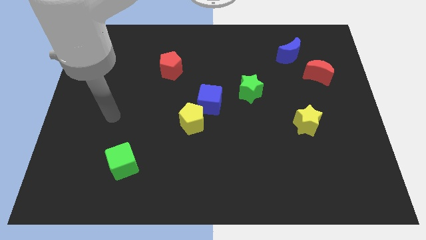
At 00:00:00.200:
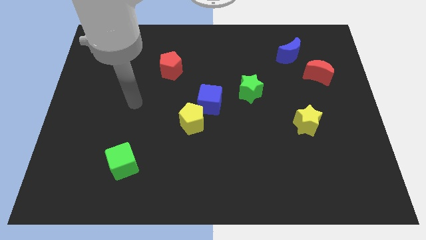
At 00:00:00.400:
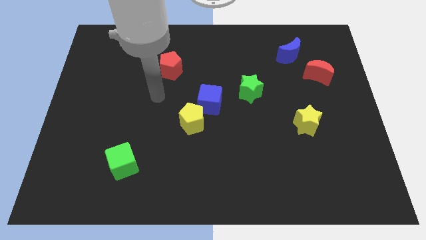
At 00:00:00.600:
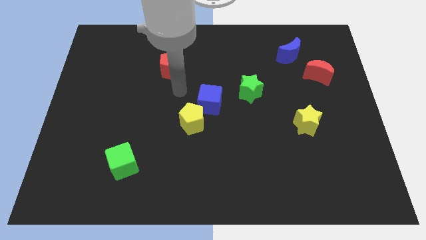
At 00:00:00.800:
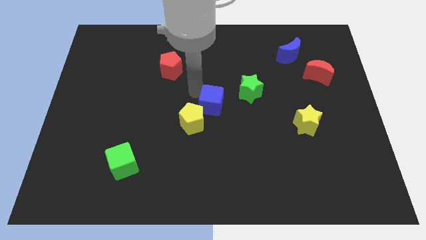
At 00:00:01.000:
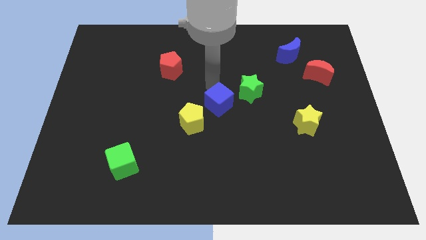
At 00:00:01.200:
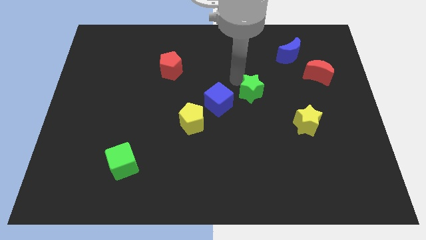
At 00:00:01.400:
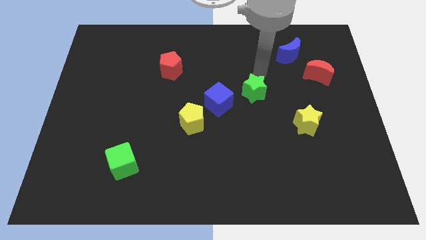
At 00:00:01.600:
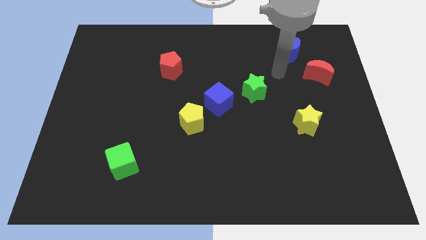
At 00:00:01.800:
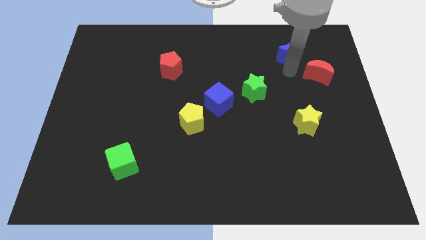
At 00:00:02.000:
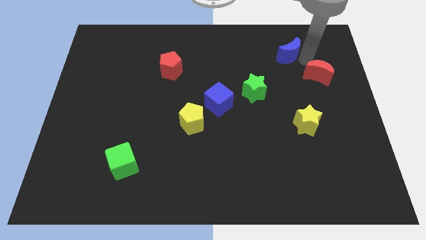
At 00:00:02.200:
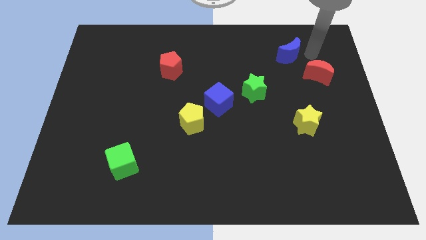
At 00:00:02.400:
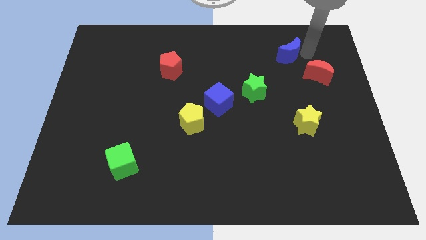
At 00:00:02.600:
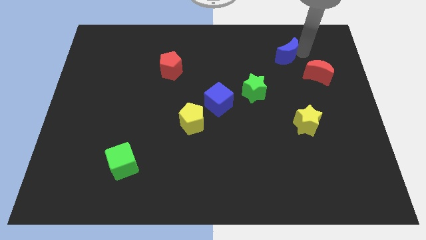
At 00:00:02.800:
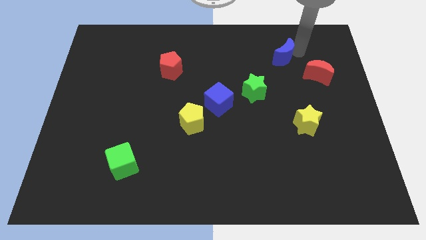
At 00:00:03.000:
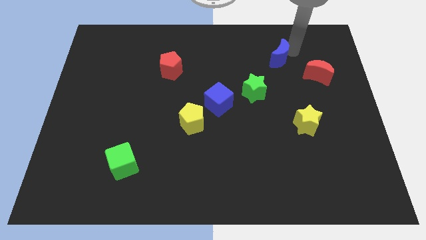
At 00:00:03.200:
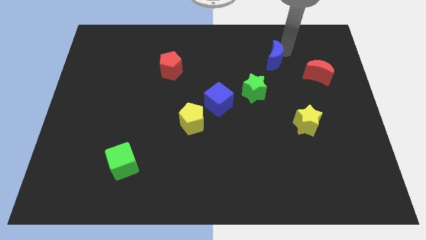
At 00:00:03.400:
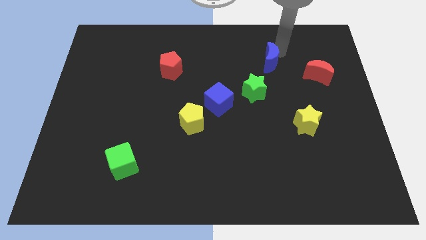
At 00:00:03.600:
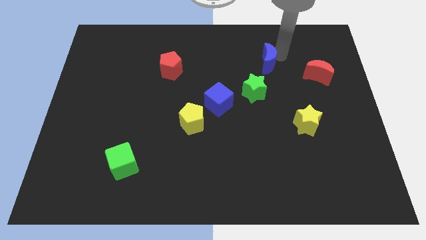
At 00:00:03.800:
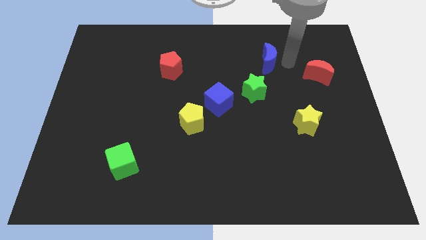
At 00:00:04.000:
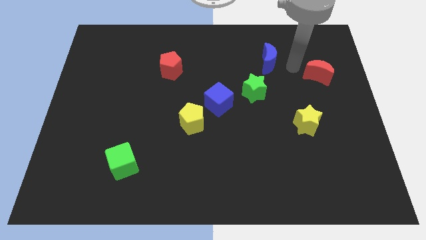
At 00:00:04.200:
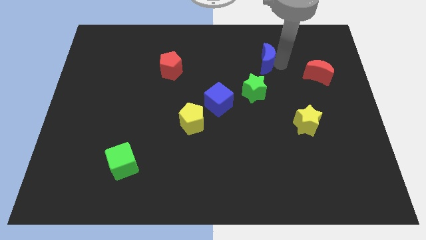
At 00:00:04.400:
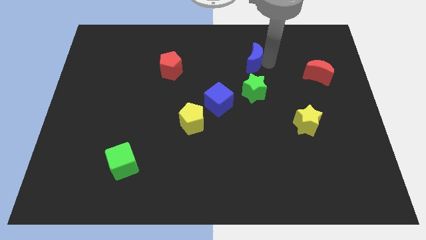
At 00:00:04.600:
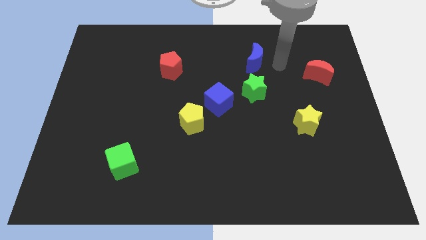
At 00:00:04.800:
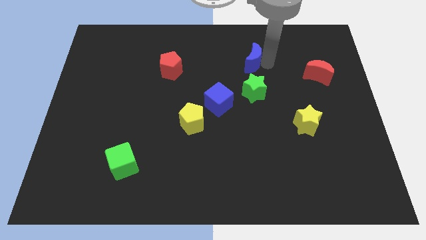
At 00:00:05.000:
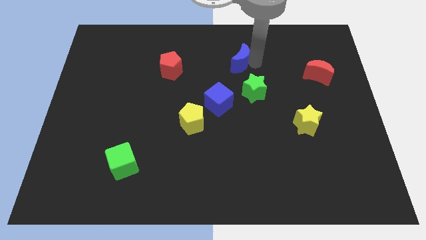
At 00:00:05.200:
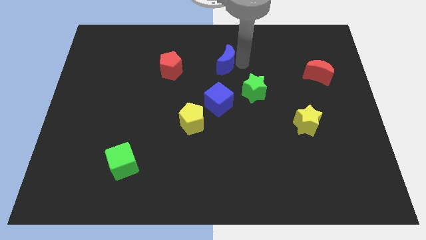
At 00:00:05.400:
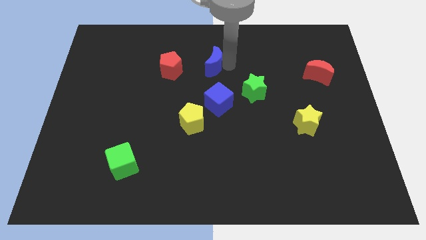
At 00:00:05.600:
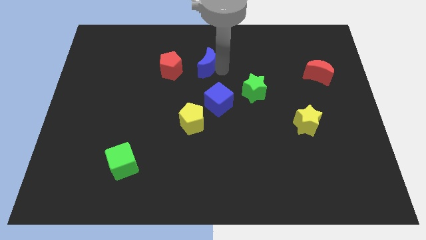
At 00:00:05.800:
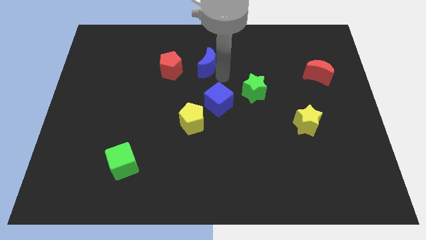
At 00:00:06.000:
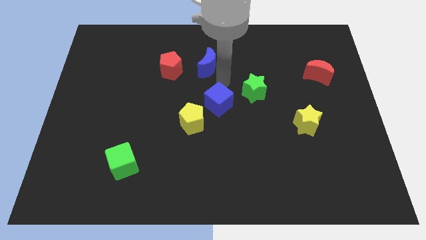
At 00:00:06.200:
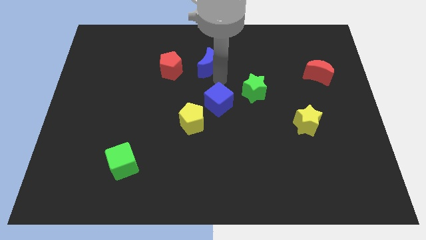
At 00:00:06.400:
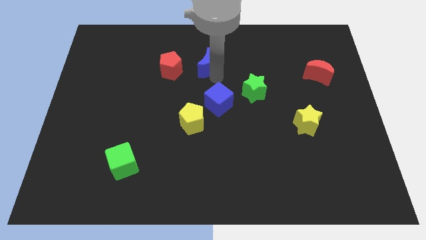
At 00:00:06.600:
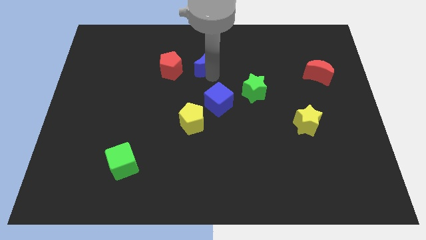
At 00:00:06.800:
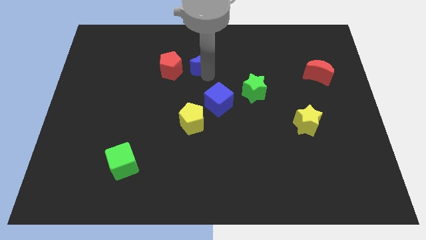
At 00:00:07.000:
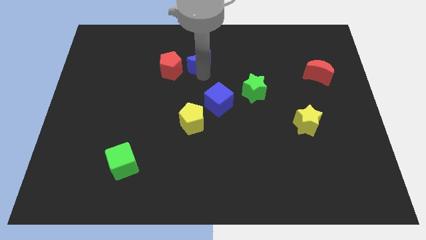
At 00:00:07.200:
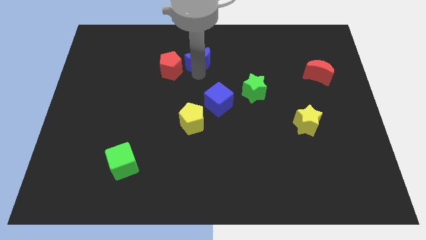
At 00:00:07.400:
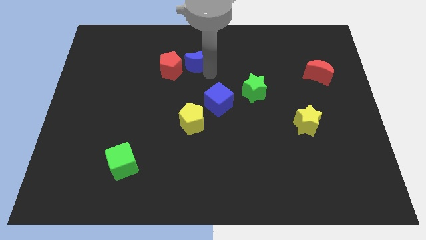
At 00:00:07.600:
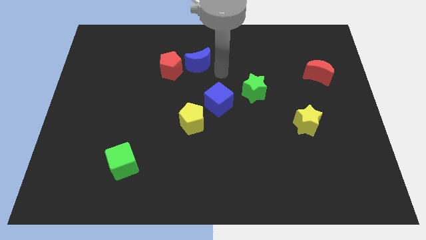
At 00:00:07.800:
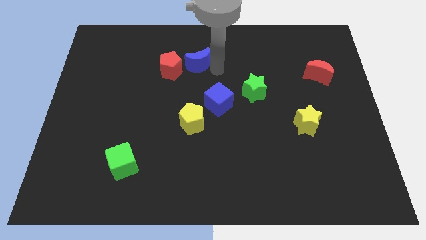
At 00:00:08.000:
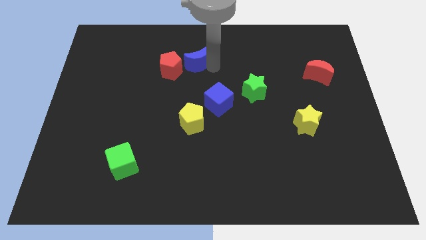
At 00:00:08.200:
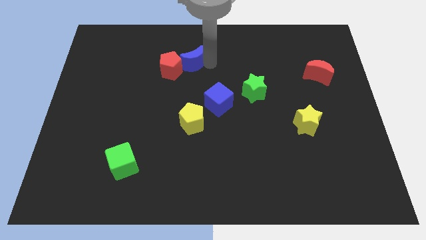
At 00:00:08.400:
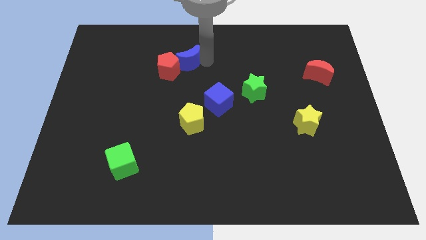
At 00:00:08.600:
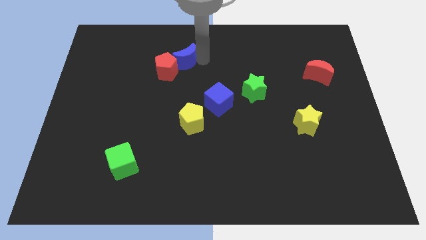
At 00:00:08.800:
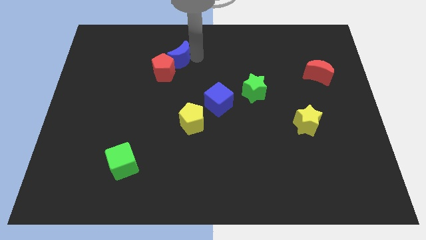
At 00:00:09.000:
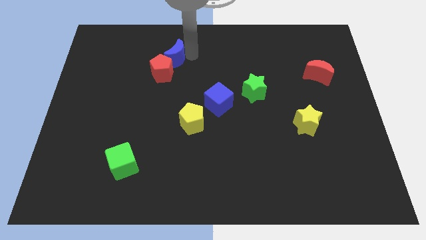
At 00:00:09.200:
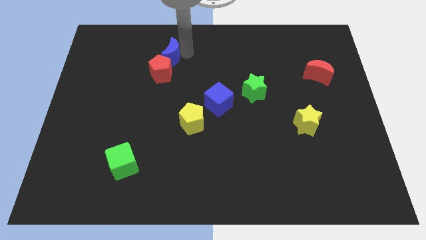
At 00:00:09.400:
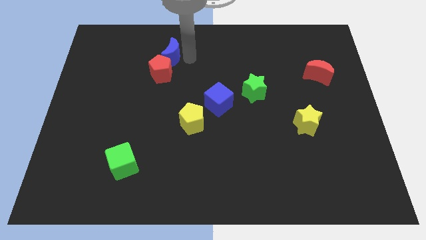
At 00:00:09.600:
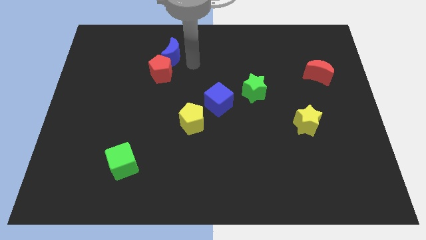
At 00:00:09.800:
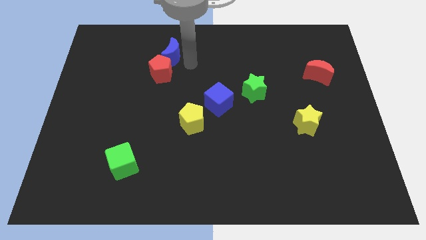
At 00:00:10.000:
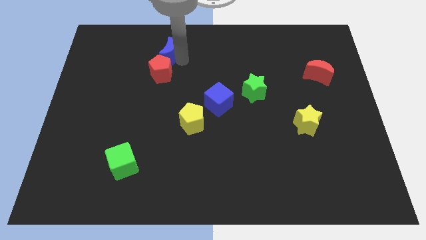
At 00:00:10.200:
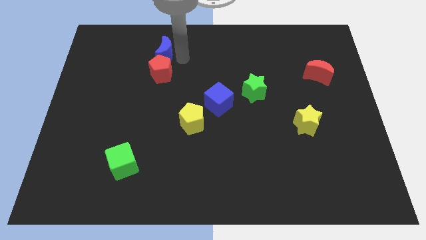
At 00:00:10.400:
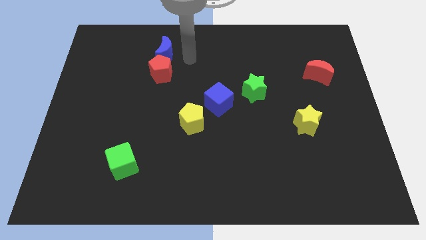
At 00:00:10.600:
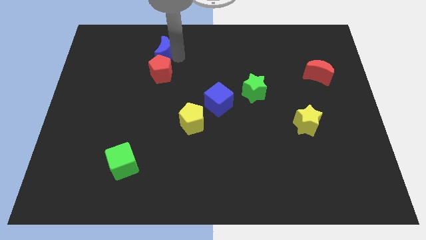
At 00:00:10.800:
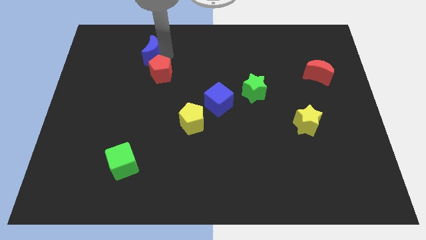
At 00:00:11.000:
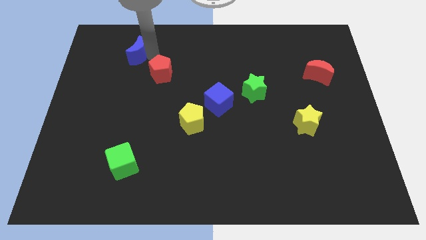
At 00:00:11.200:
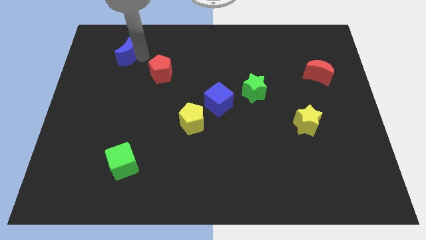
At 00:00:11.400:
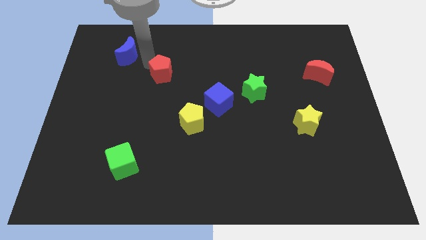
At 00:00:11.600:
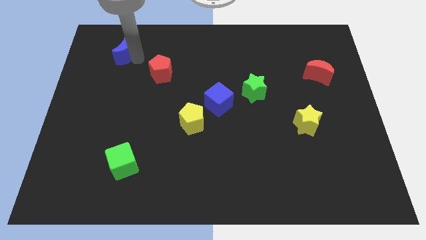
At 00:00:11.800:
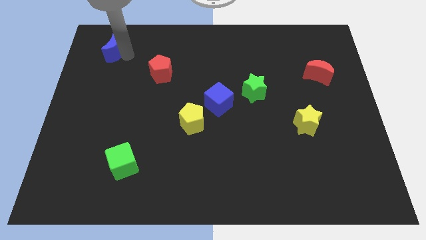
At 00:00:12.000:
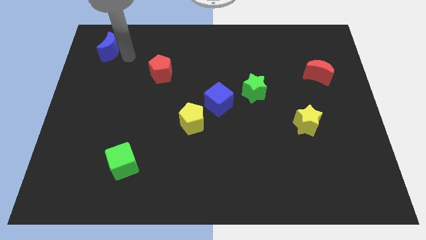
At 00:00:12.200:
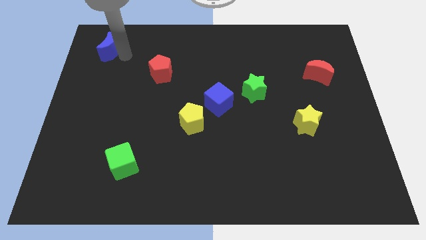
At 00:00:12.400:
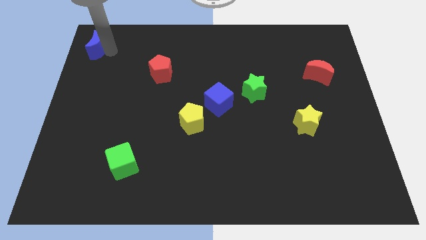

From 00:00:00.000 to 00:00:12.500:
push the blue moon to the top left
